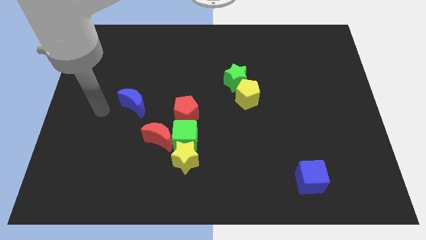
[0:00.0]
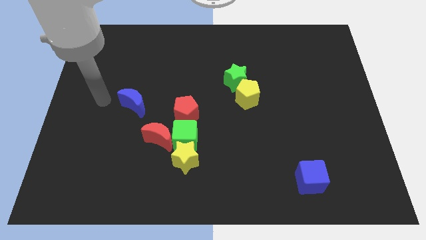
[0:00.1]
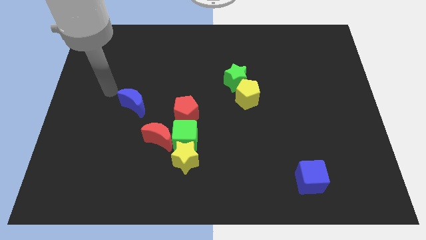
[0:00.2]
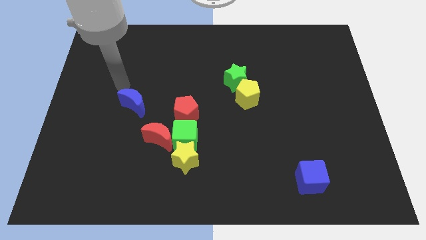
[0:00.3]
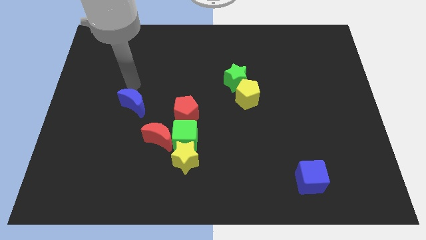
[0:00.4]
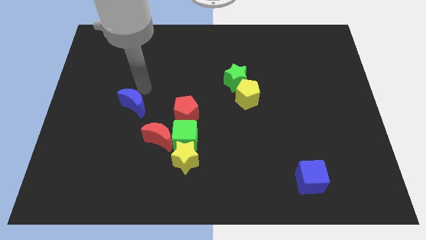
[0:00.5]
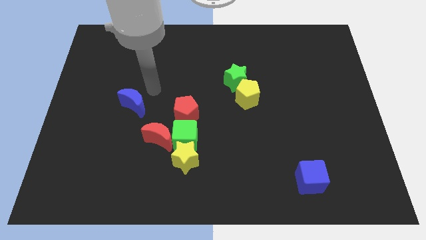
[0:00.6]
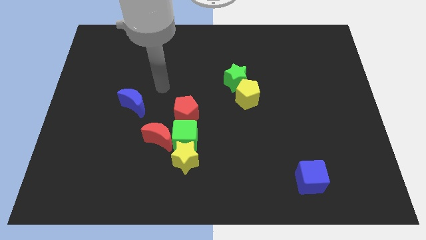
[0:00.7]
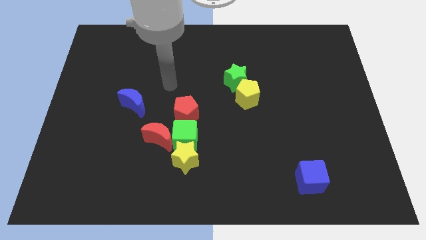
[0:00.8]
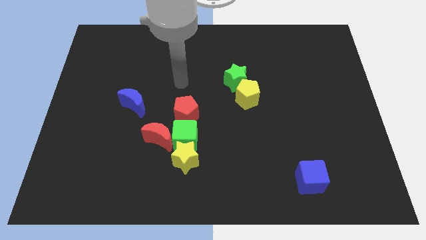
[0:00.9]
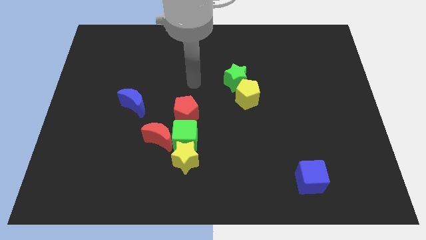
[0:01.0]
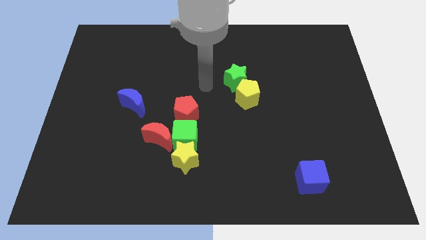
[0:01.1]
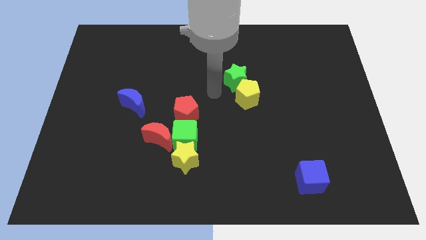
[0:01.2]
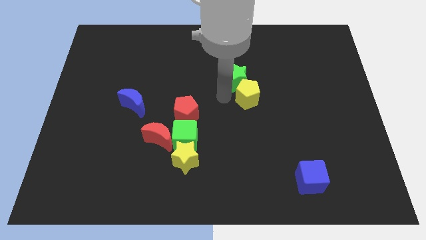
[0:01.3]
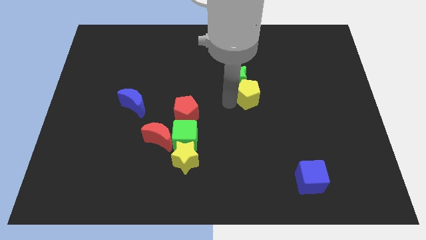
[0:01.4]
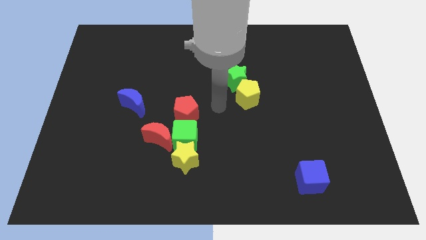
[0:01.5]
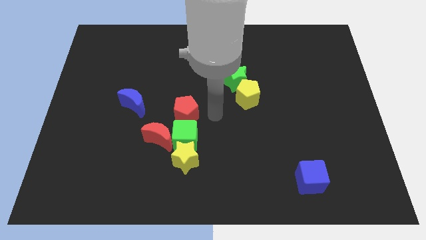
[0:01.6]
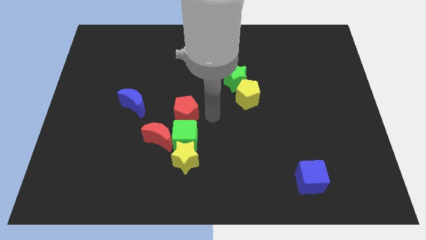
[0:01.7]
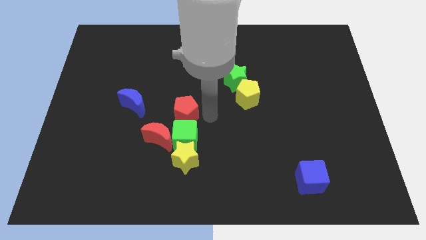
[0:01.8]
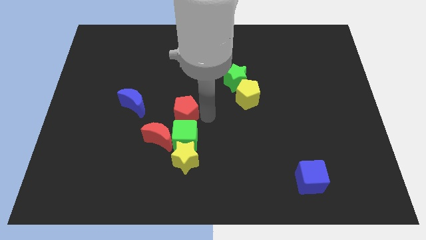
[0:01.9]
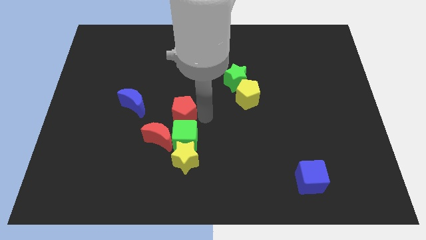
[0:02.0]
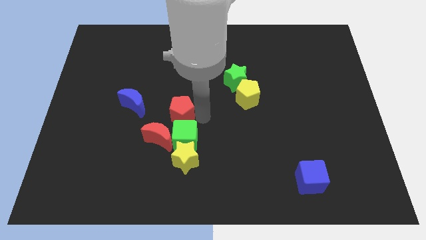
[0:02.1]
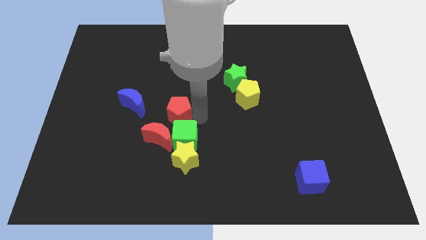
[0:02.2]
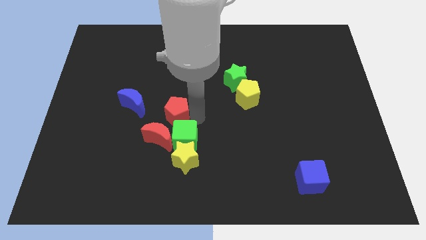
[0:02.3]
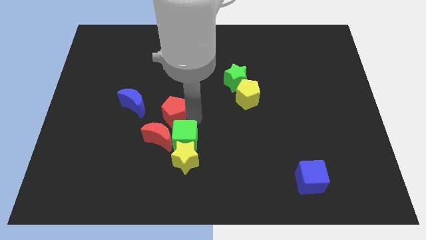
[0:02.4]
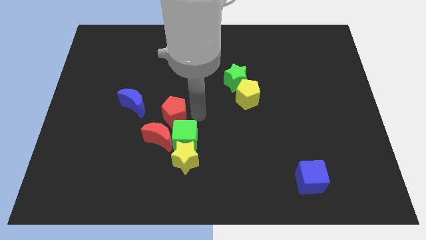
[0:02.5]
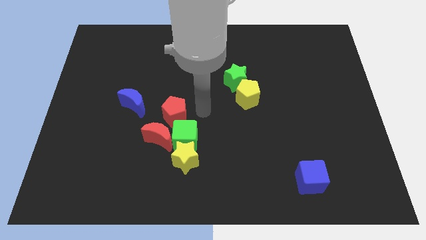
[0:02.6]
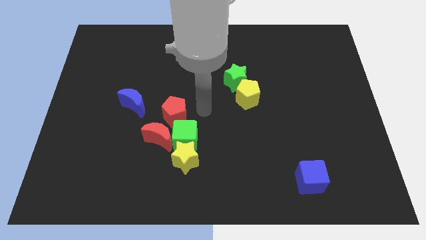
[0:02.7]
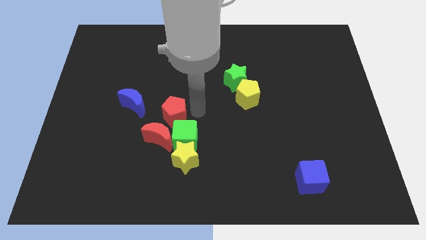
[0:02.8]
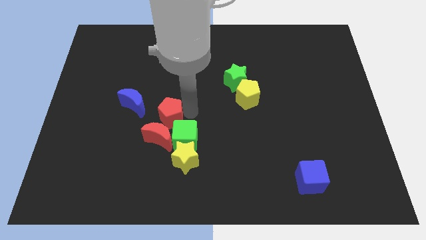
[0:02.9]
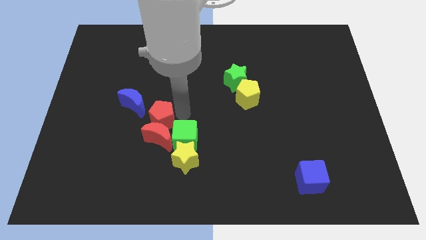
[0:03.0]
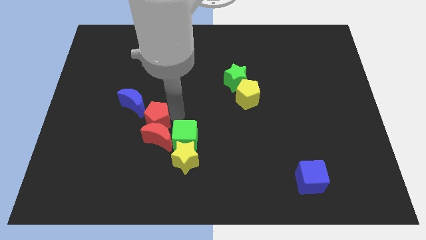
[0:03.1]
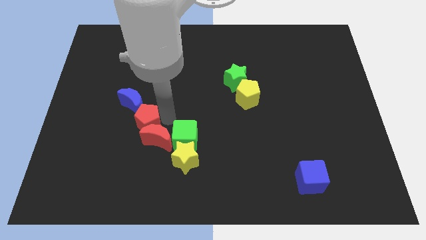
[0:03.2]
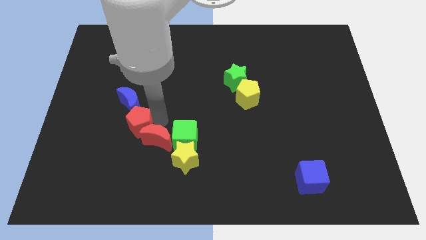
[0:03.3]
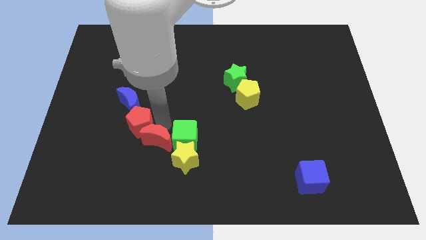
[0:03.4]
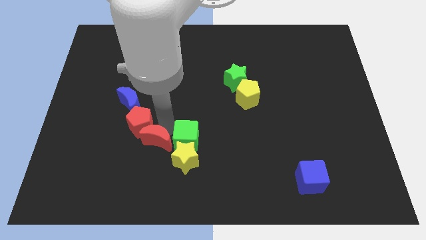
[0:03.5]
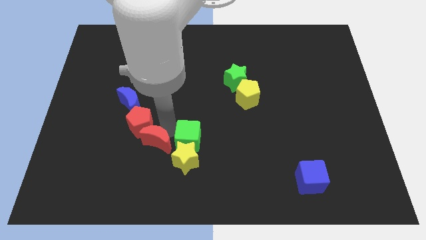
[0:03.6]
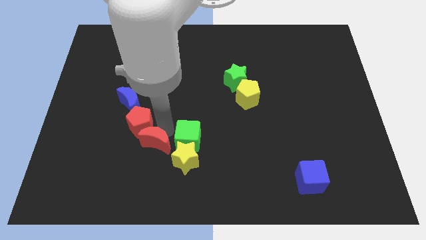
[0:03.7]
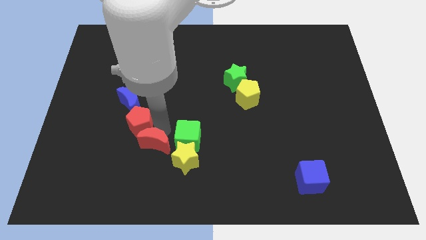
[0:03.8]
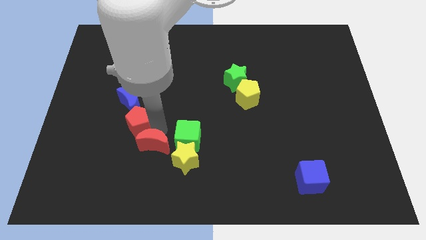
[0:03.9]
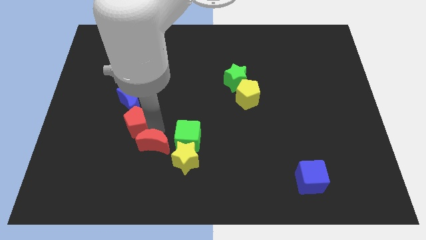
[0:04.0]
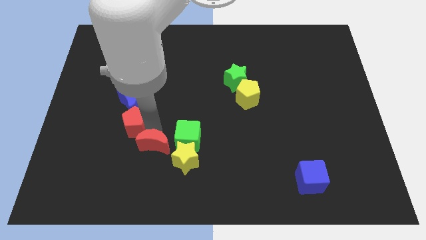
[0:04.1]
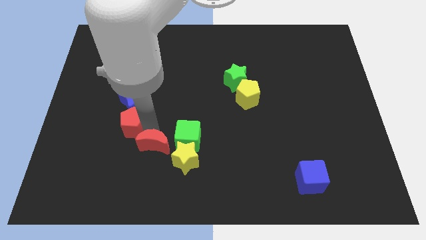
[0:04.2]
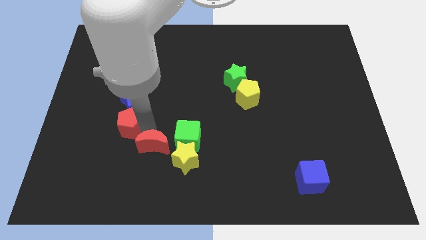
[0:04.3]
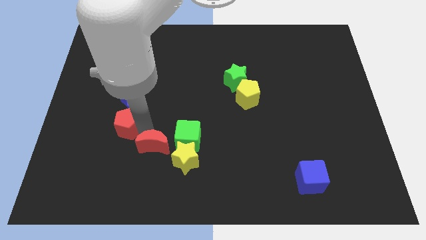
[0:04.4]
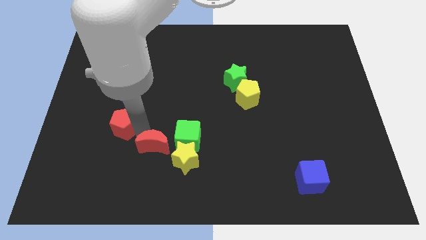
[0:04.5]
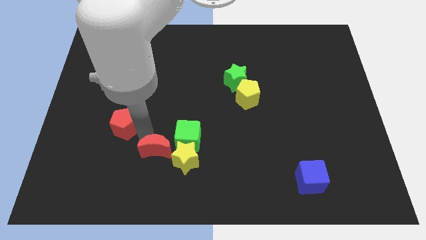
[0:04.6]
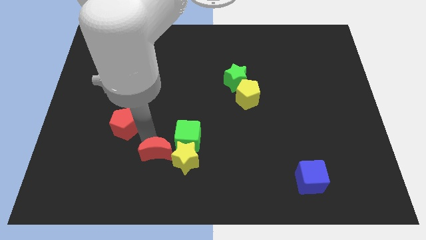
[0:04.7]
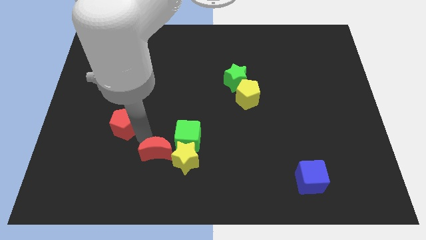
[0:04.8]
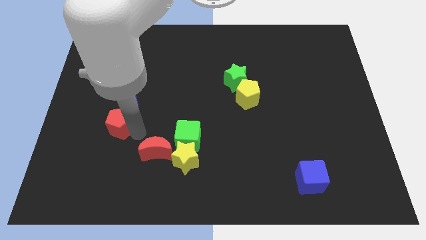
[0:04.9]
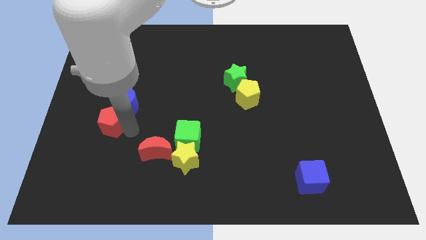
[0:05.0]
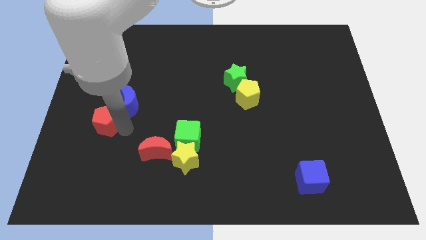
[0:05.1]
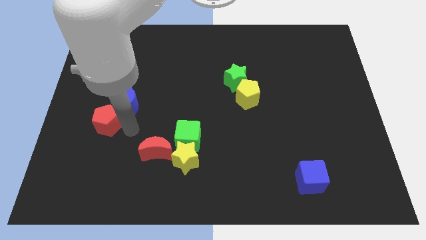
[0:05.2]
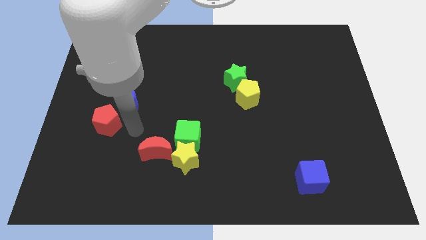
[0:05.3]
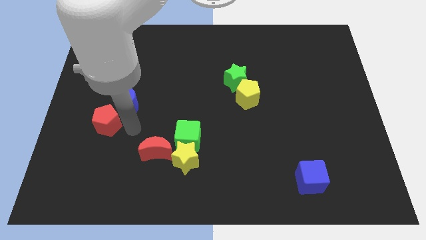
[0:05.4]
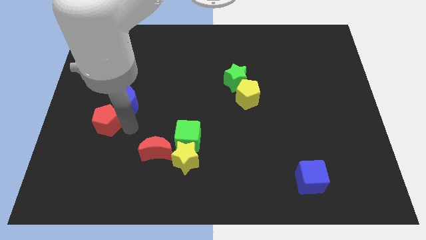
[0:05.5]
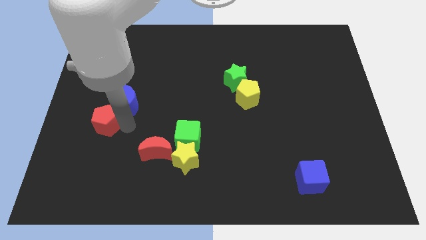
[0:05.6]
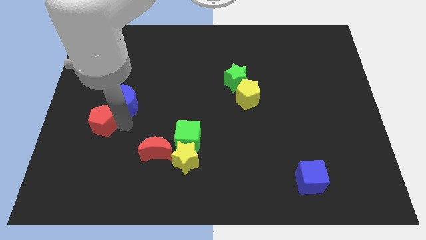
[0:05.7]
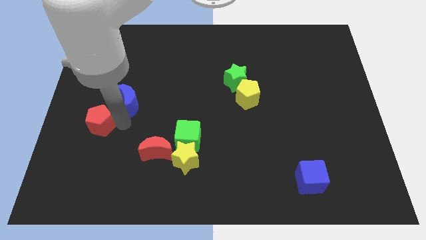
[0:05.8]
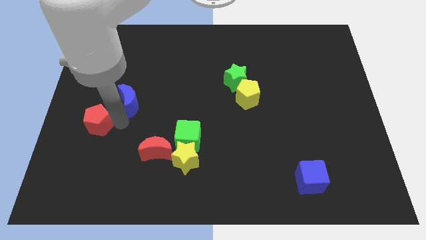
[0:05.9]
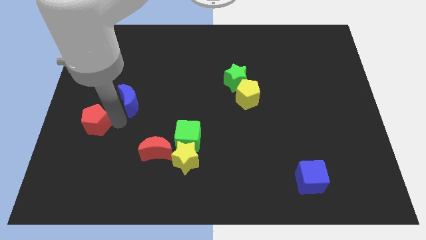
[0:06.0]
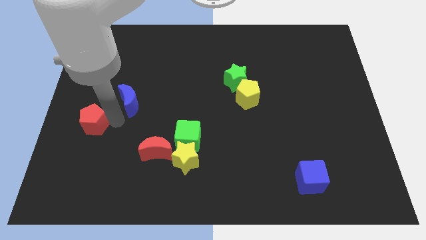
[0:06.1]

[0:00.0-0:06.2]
move the red pentagon to the center left
